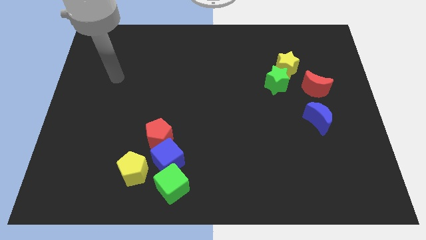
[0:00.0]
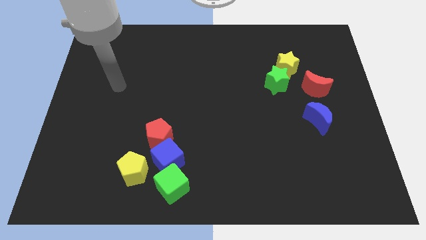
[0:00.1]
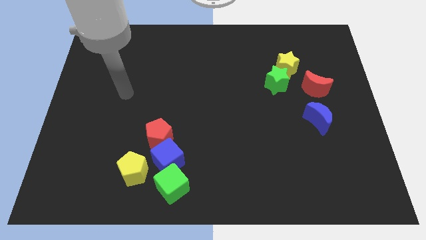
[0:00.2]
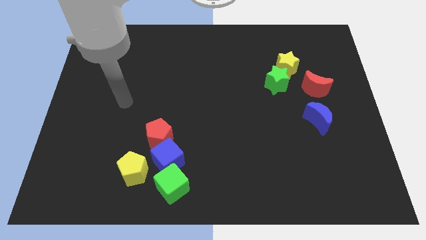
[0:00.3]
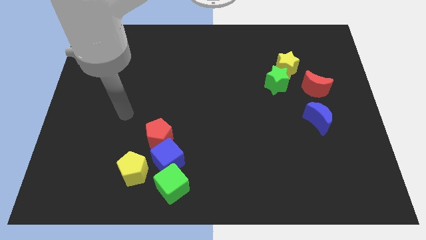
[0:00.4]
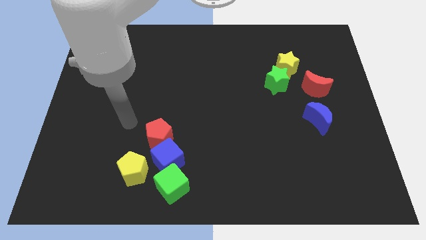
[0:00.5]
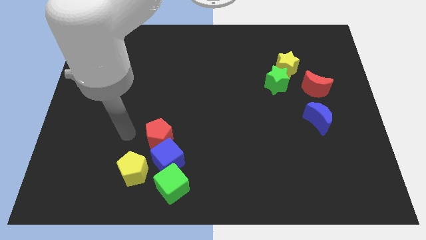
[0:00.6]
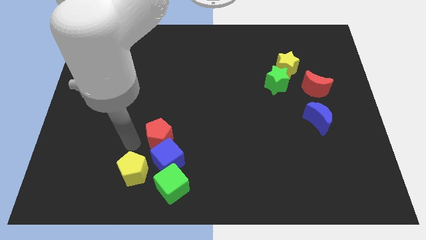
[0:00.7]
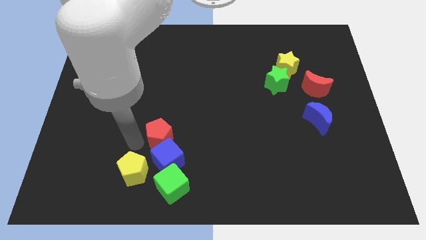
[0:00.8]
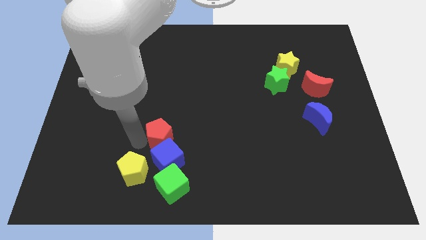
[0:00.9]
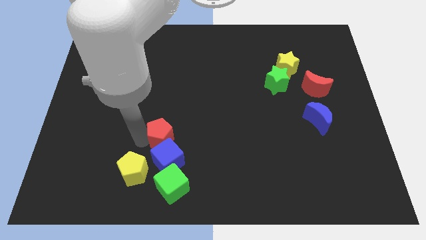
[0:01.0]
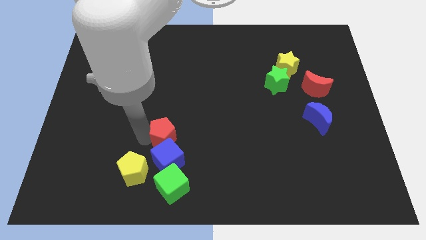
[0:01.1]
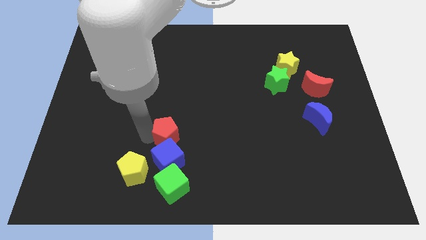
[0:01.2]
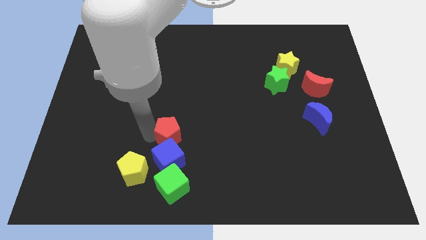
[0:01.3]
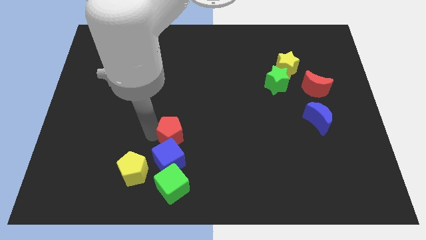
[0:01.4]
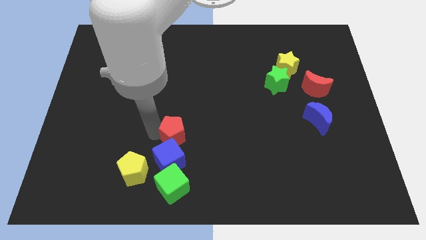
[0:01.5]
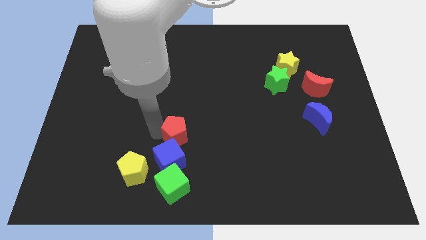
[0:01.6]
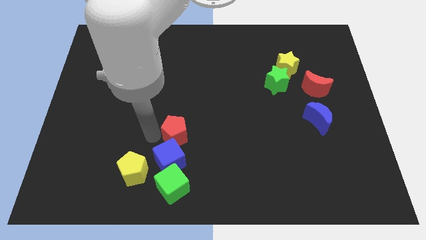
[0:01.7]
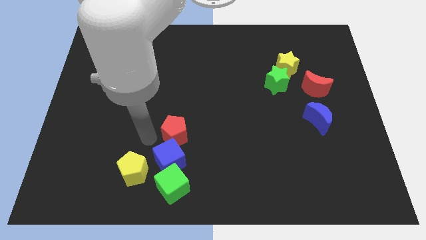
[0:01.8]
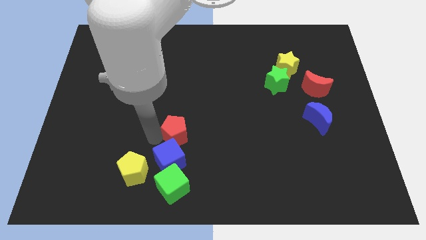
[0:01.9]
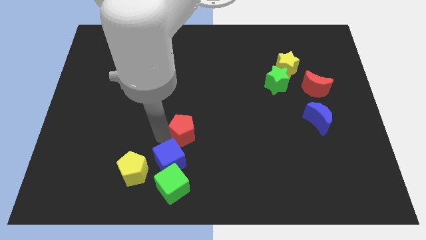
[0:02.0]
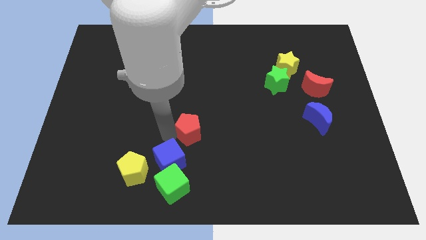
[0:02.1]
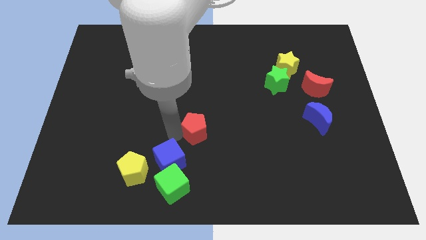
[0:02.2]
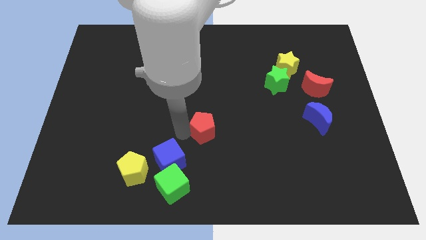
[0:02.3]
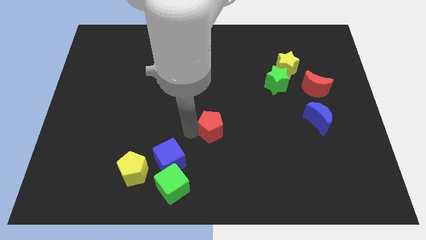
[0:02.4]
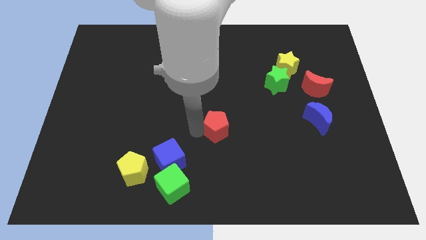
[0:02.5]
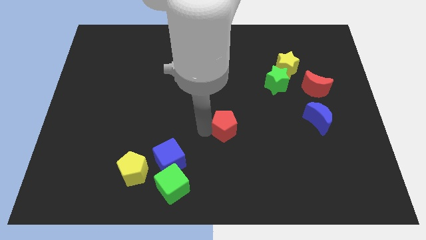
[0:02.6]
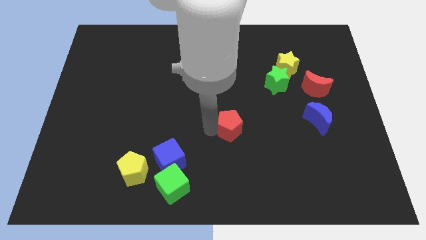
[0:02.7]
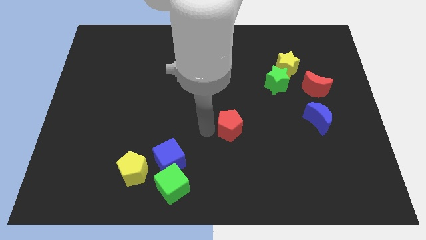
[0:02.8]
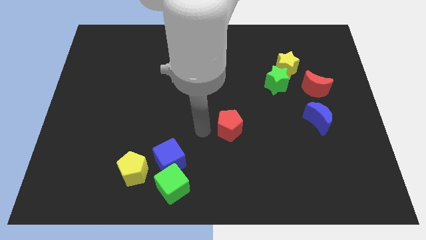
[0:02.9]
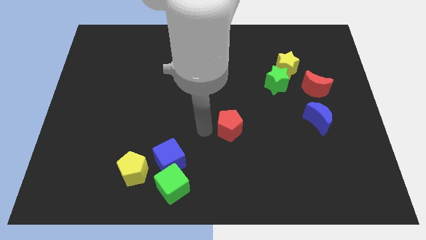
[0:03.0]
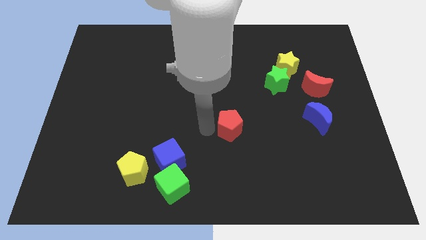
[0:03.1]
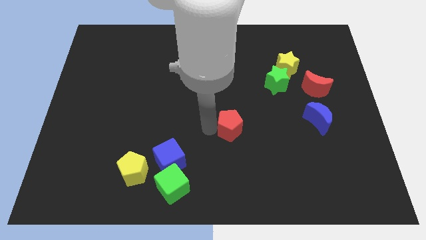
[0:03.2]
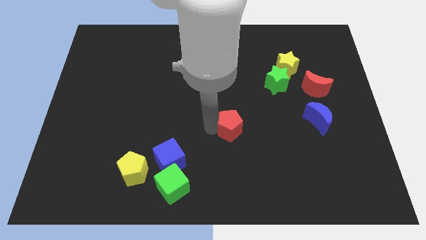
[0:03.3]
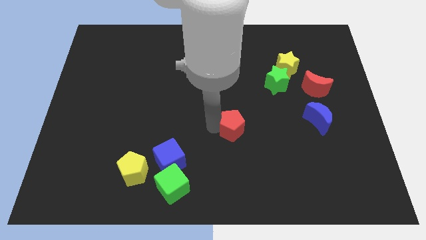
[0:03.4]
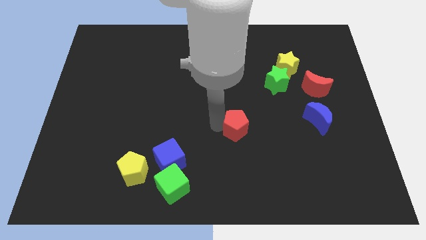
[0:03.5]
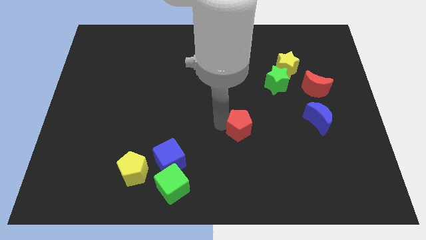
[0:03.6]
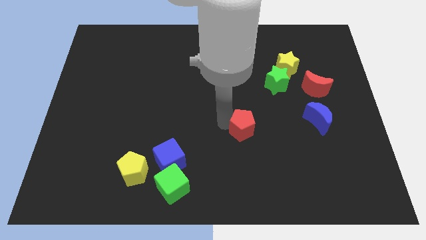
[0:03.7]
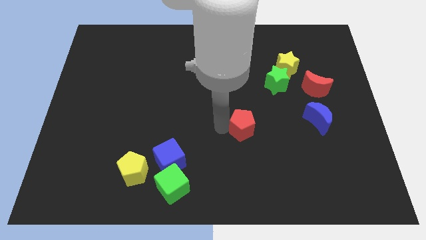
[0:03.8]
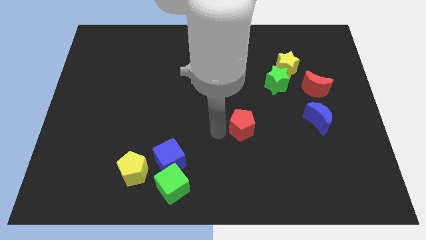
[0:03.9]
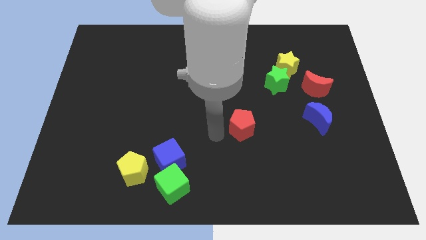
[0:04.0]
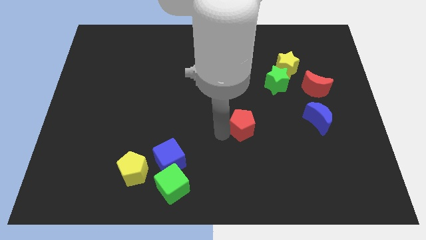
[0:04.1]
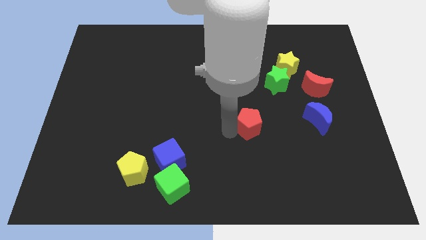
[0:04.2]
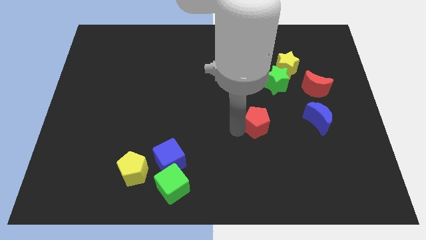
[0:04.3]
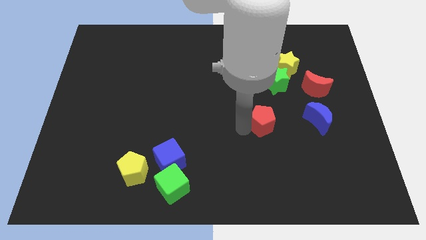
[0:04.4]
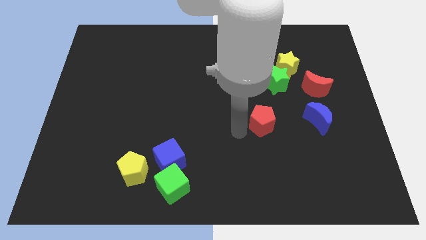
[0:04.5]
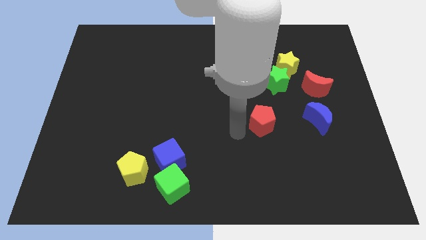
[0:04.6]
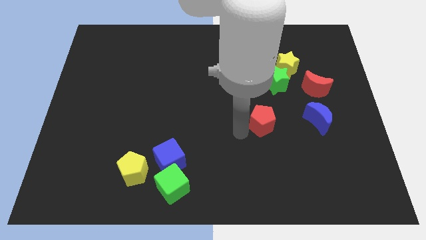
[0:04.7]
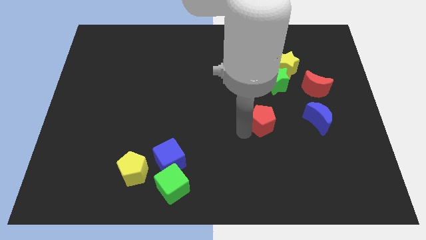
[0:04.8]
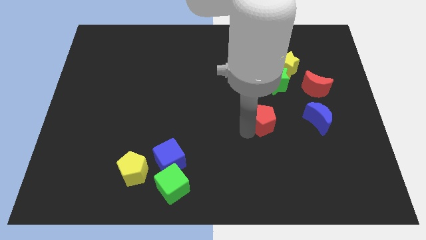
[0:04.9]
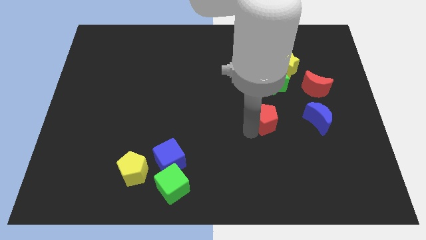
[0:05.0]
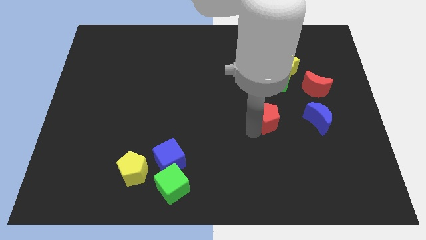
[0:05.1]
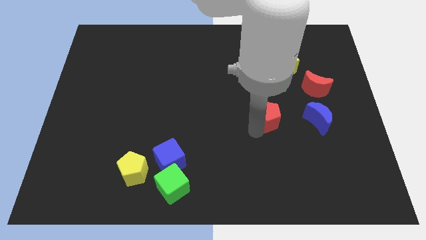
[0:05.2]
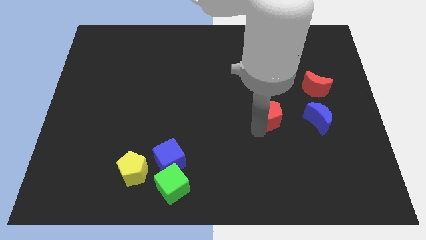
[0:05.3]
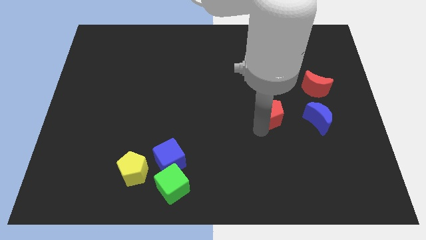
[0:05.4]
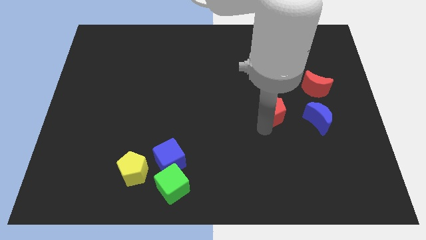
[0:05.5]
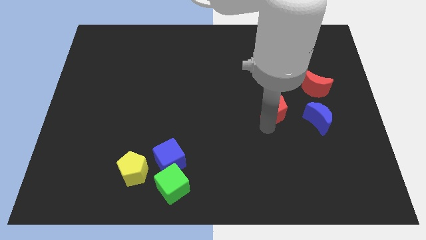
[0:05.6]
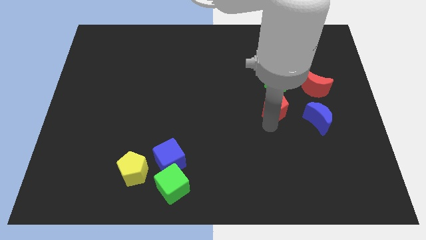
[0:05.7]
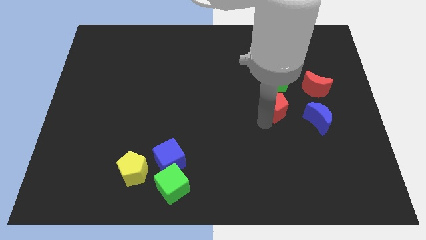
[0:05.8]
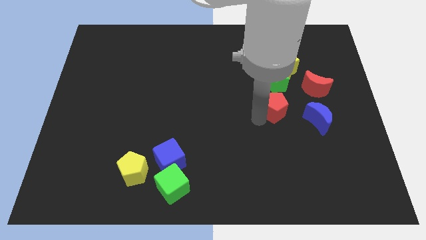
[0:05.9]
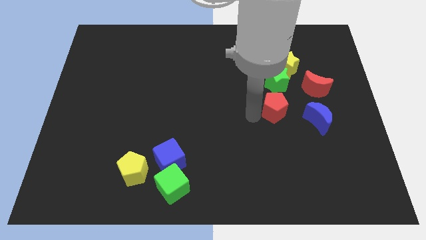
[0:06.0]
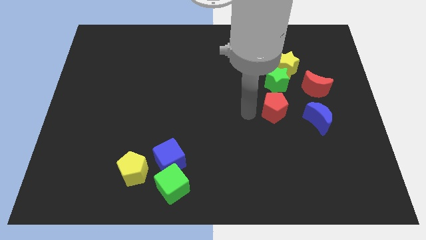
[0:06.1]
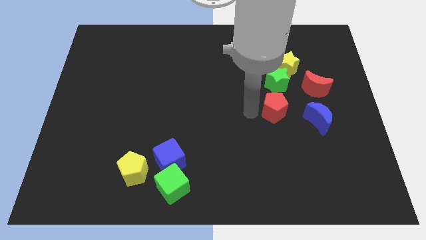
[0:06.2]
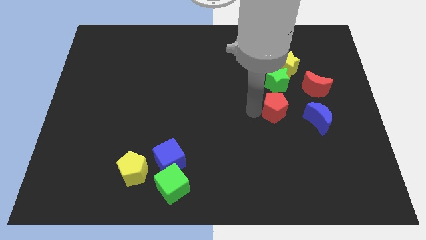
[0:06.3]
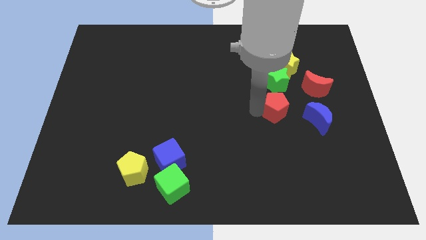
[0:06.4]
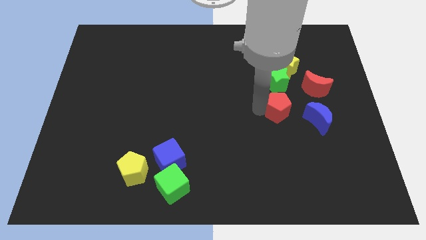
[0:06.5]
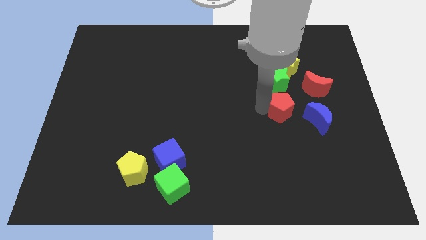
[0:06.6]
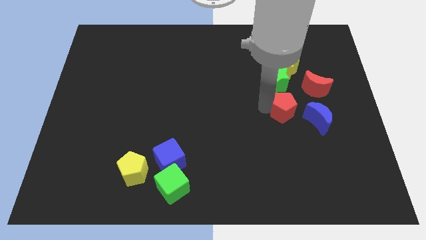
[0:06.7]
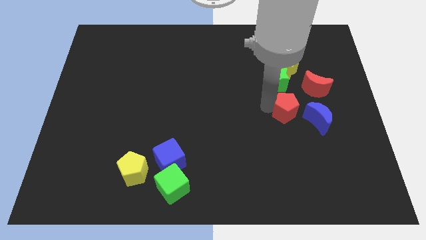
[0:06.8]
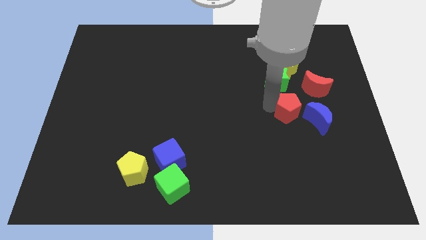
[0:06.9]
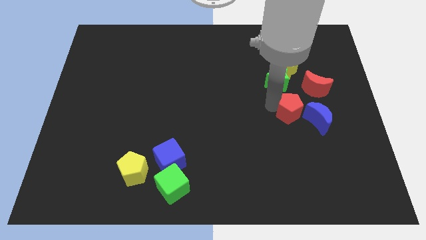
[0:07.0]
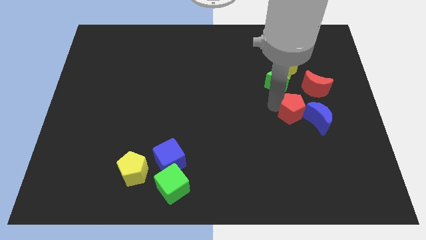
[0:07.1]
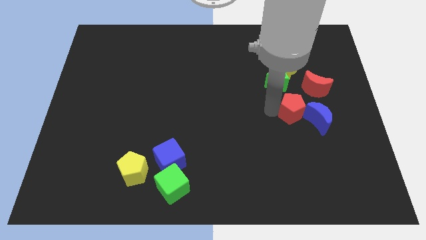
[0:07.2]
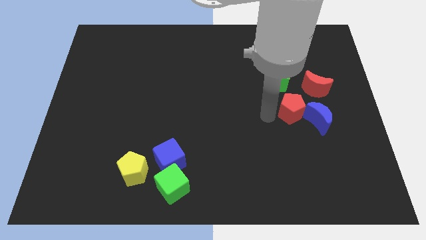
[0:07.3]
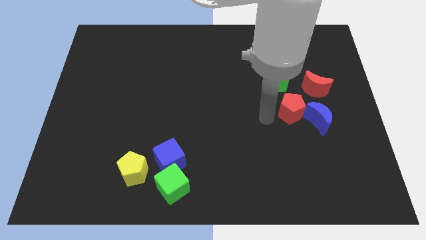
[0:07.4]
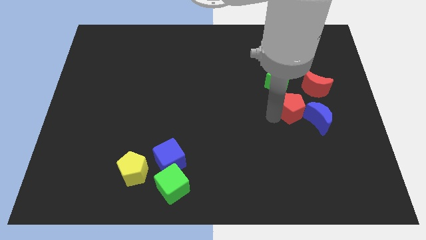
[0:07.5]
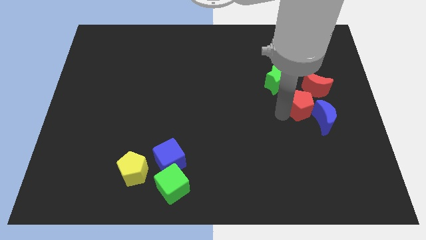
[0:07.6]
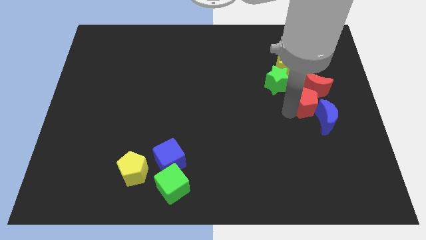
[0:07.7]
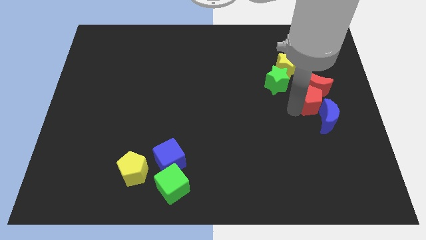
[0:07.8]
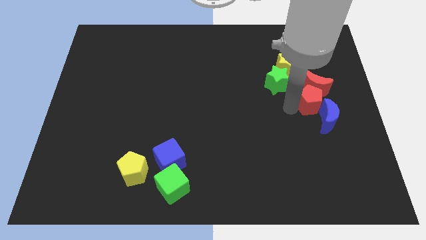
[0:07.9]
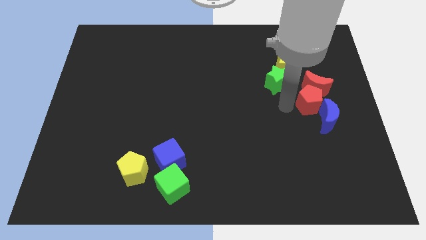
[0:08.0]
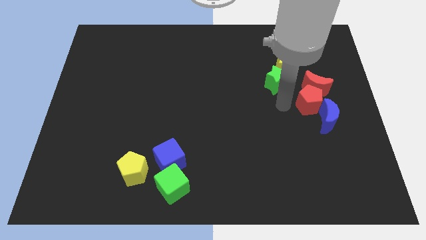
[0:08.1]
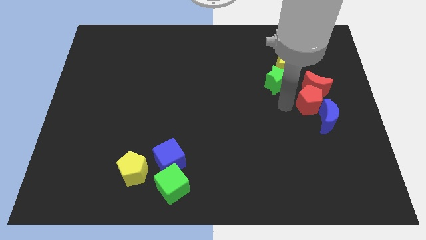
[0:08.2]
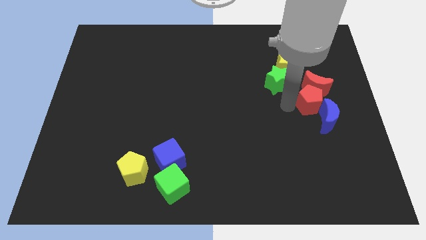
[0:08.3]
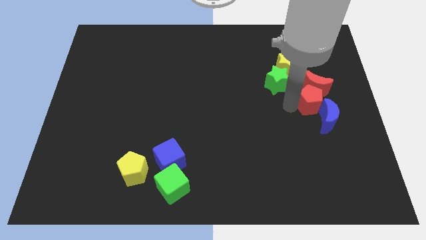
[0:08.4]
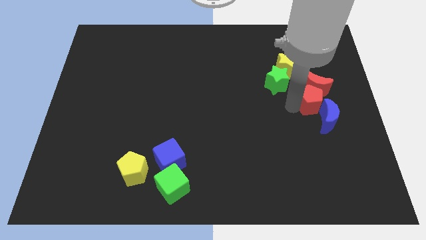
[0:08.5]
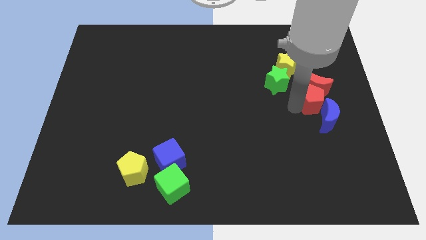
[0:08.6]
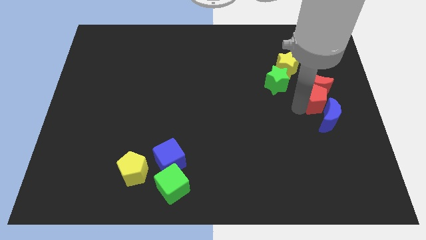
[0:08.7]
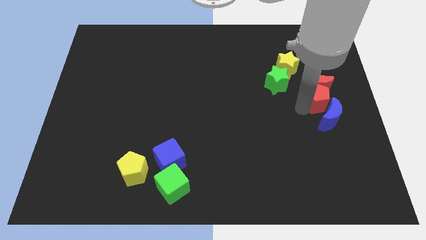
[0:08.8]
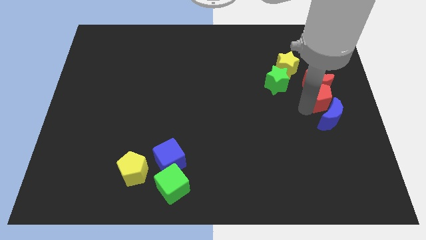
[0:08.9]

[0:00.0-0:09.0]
push the red pentagon to the right side
